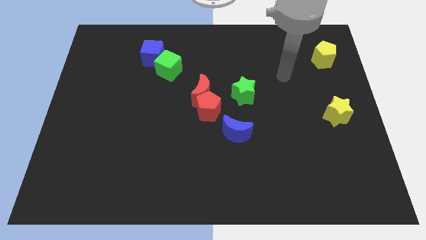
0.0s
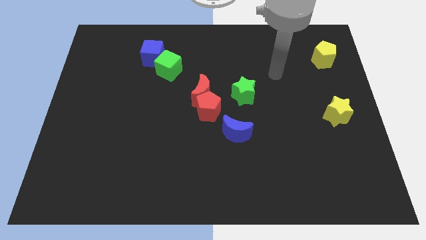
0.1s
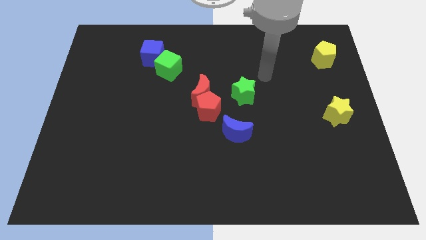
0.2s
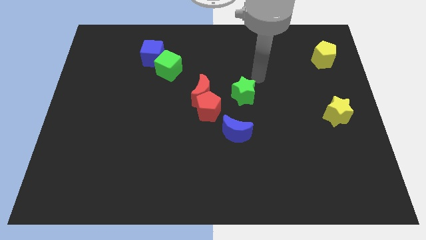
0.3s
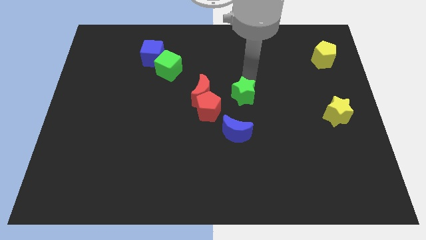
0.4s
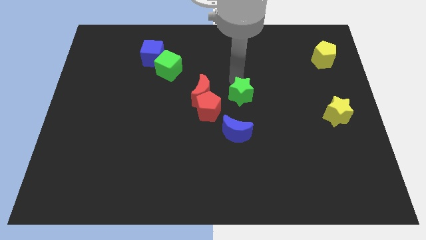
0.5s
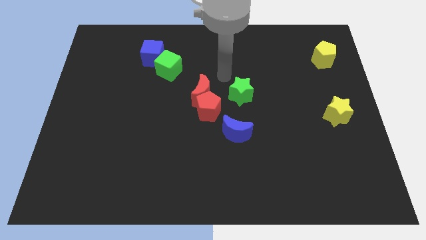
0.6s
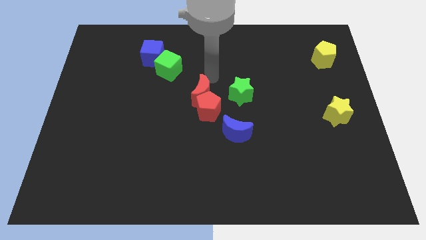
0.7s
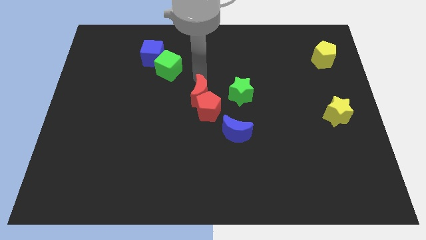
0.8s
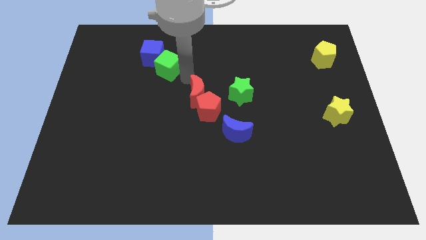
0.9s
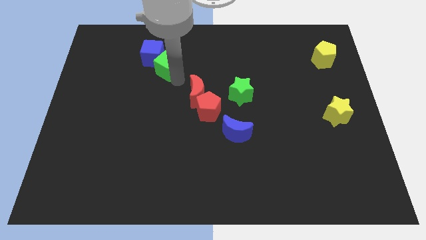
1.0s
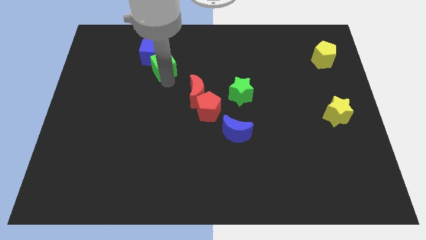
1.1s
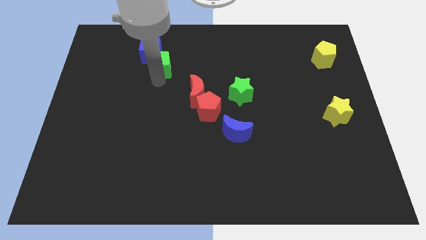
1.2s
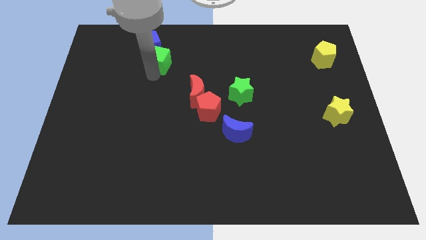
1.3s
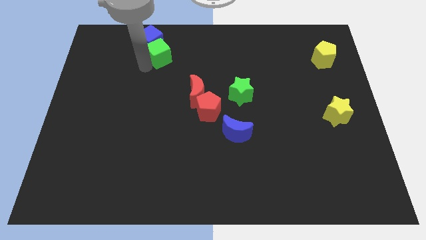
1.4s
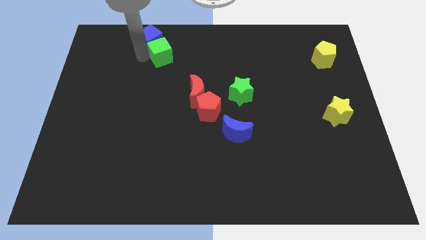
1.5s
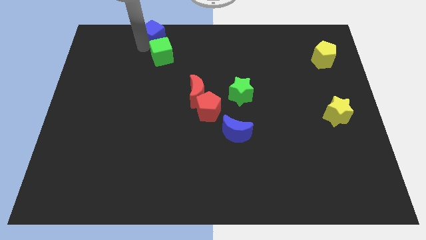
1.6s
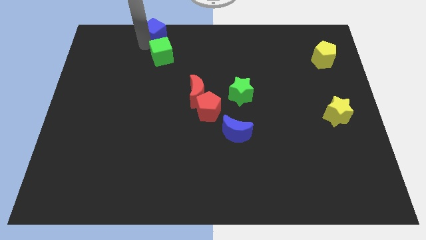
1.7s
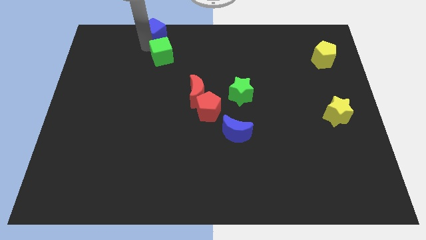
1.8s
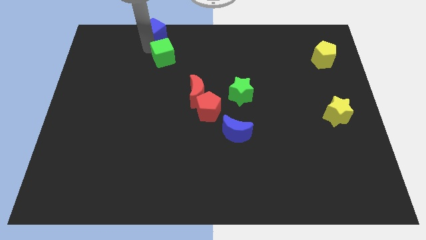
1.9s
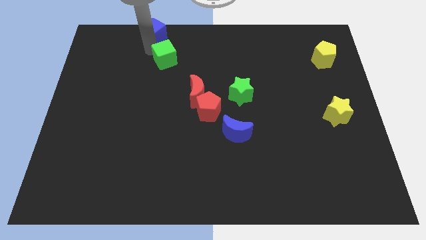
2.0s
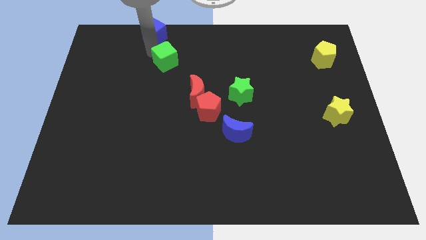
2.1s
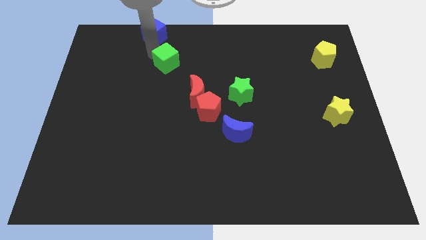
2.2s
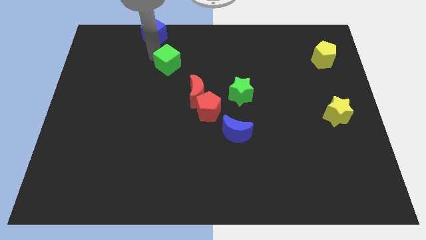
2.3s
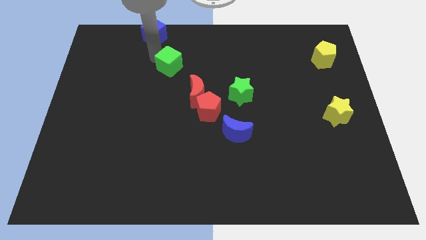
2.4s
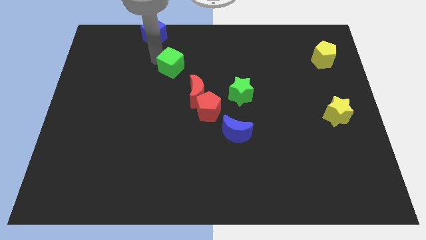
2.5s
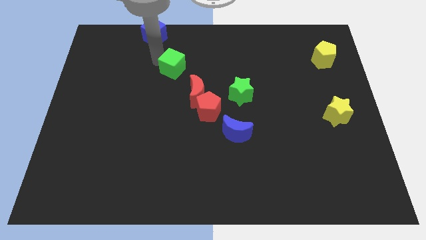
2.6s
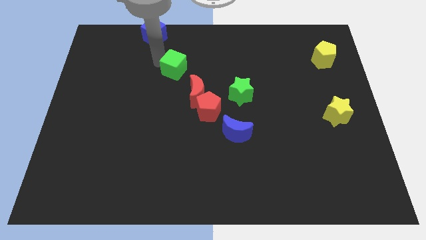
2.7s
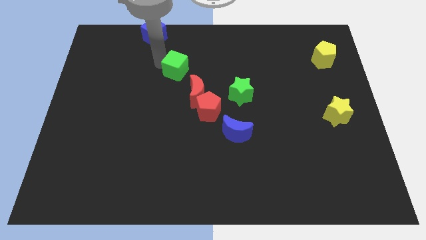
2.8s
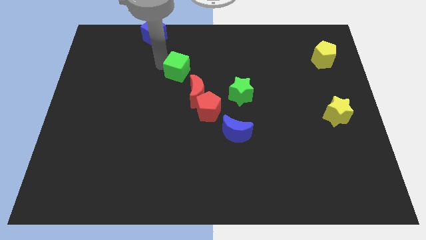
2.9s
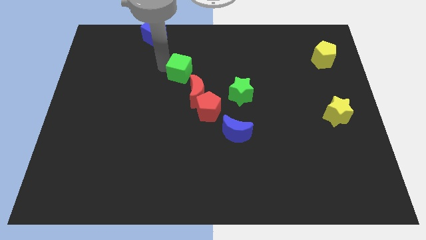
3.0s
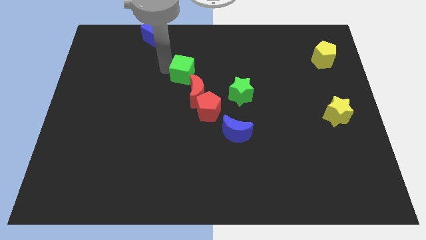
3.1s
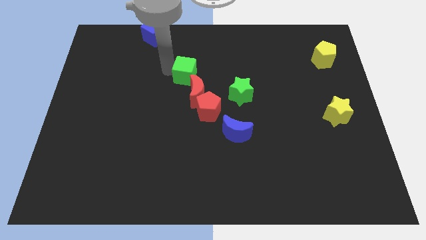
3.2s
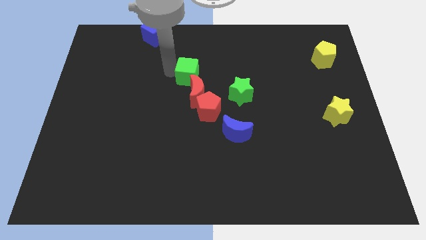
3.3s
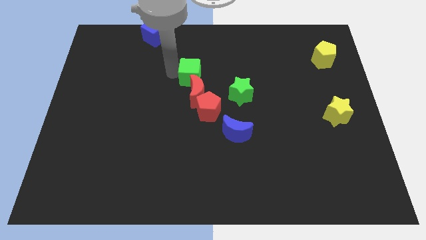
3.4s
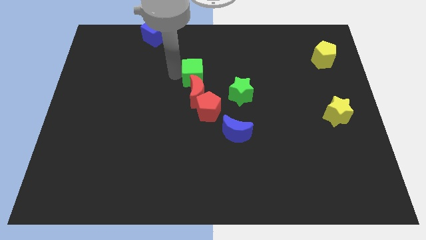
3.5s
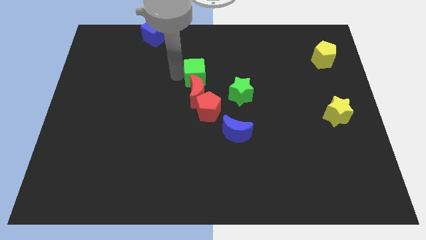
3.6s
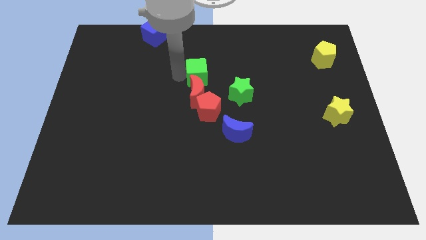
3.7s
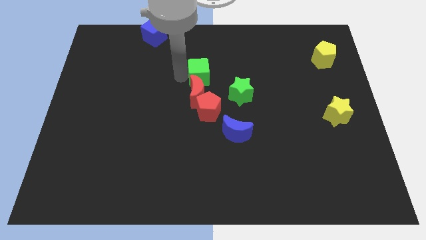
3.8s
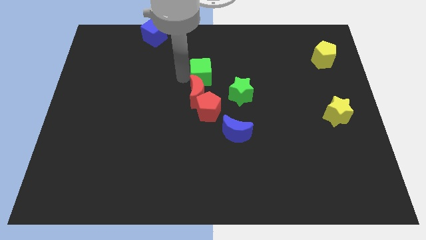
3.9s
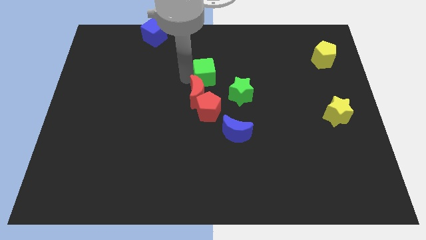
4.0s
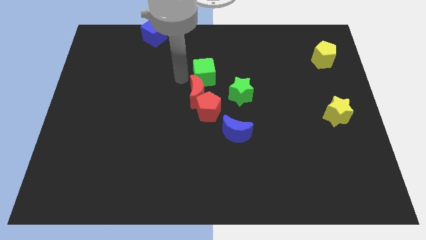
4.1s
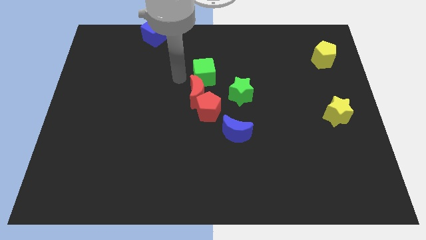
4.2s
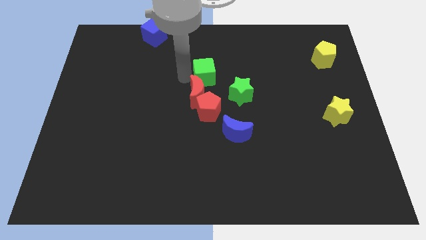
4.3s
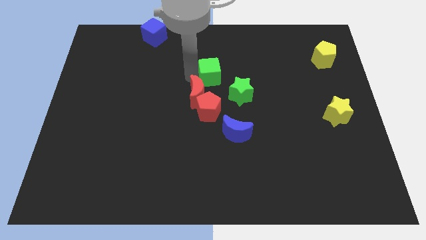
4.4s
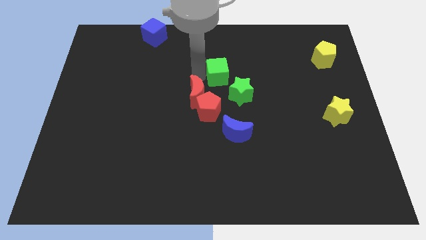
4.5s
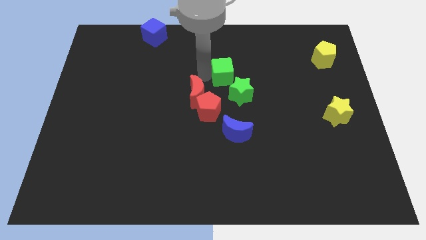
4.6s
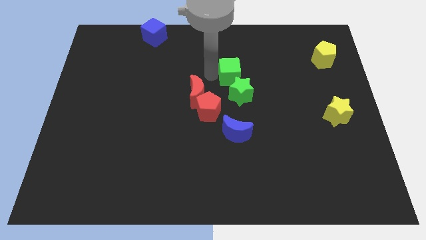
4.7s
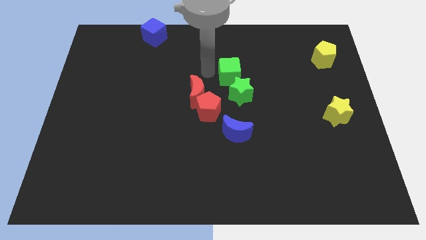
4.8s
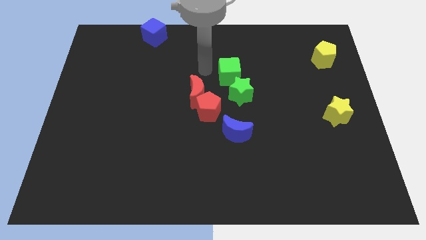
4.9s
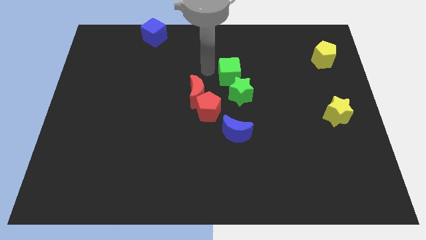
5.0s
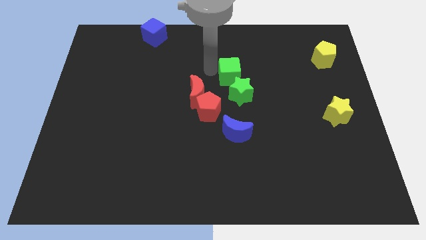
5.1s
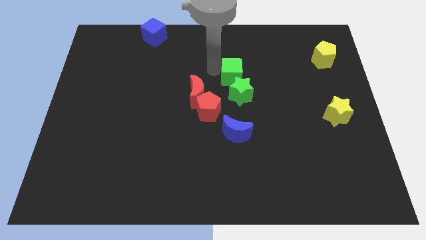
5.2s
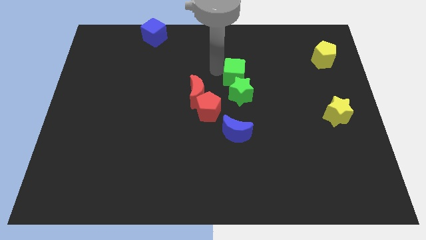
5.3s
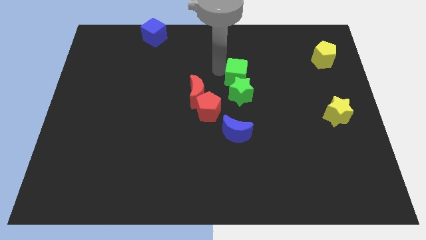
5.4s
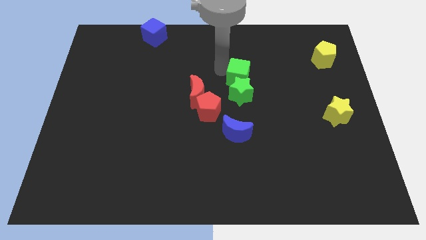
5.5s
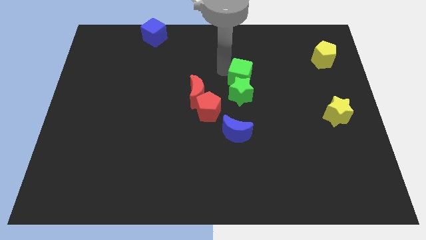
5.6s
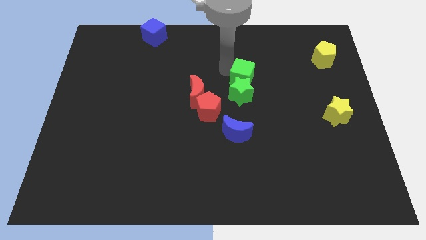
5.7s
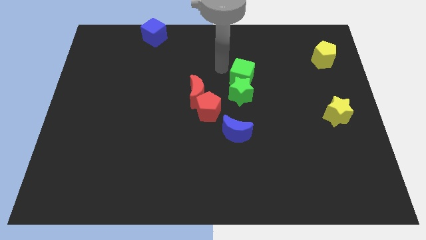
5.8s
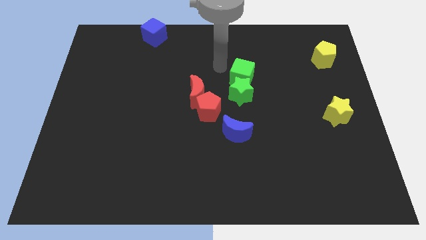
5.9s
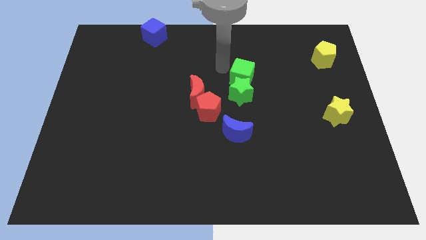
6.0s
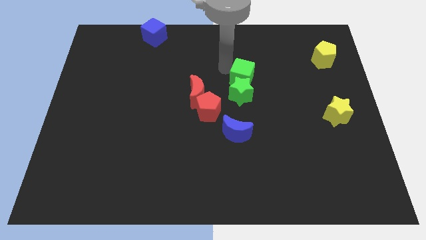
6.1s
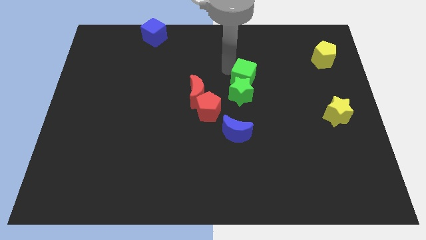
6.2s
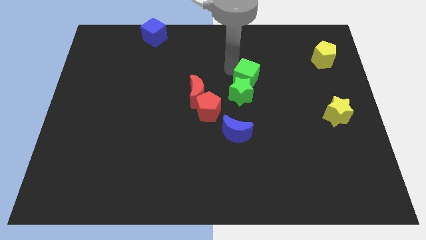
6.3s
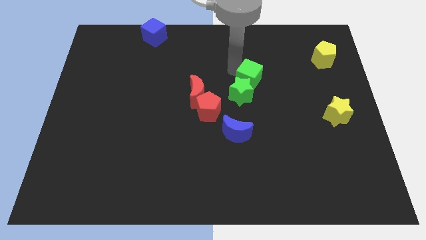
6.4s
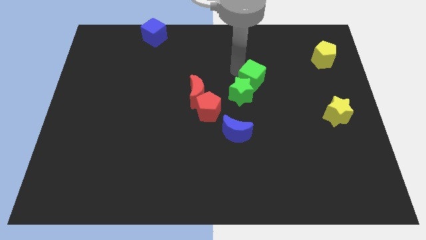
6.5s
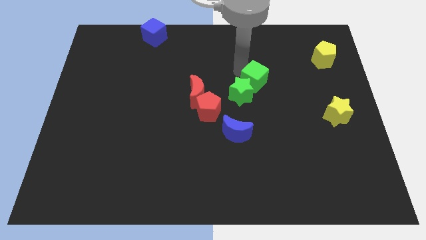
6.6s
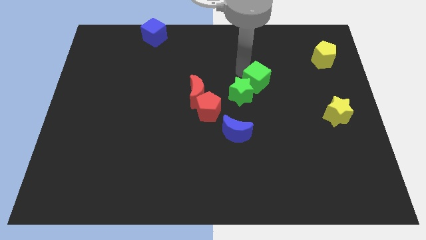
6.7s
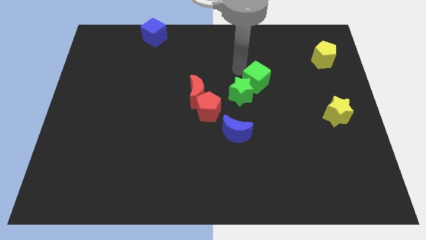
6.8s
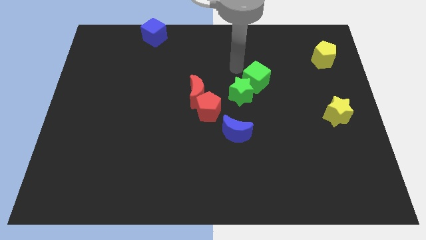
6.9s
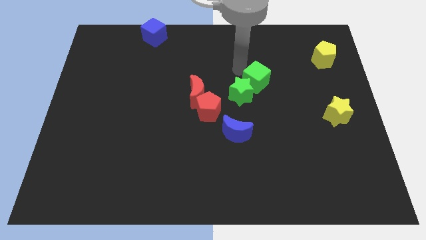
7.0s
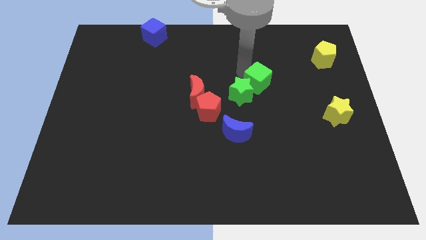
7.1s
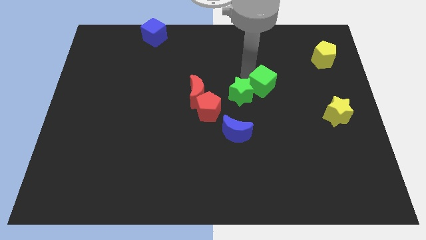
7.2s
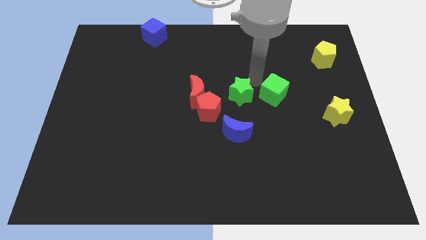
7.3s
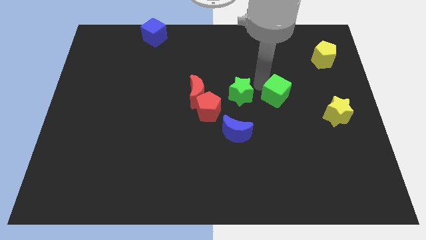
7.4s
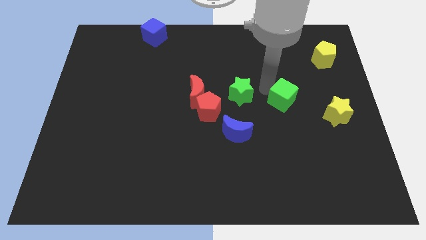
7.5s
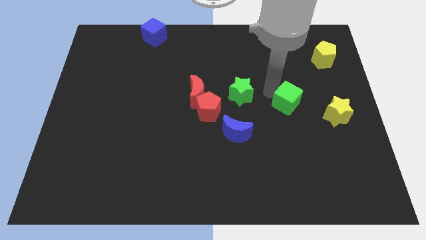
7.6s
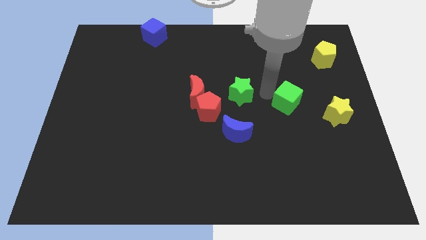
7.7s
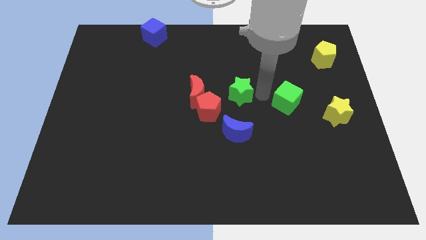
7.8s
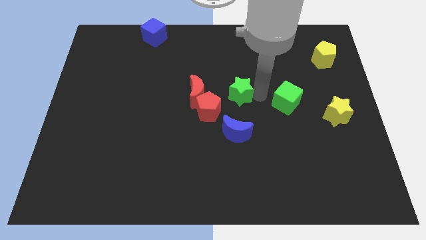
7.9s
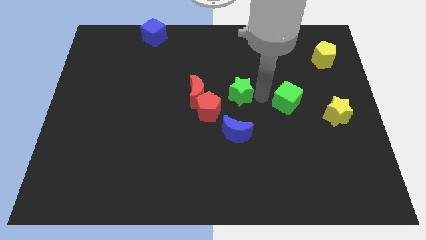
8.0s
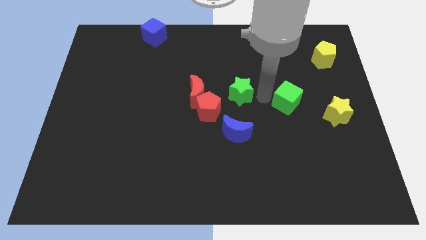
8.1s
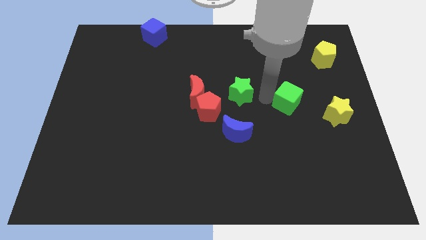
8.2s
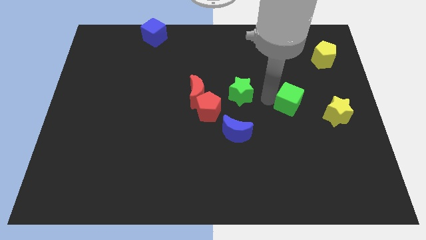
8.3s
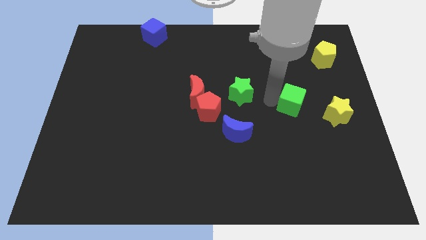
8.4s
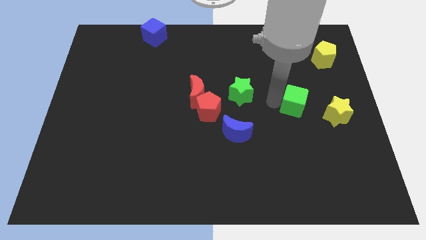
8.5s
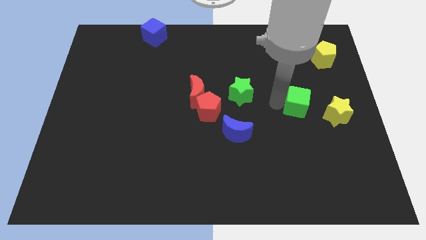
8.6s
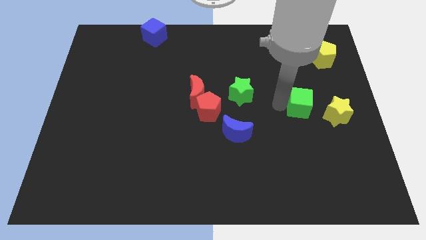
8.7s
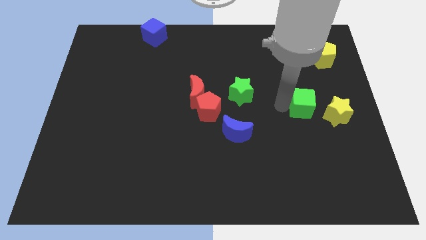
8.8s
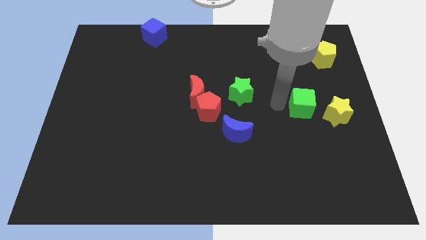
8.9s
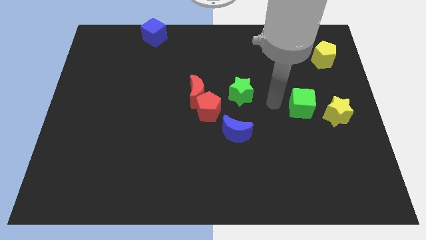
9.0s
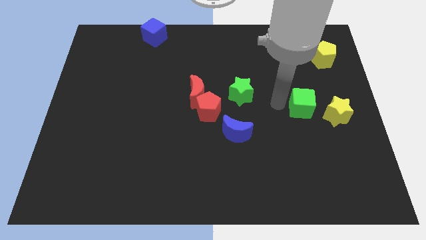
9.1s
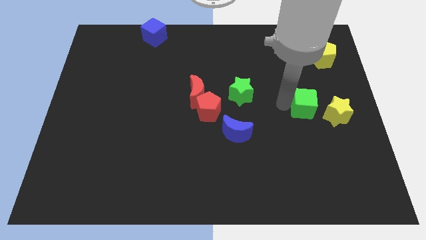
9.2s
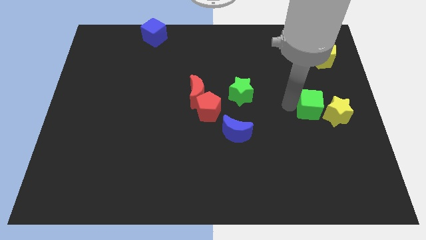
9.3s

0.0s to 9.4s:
move the green cube to the yellow star
